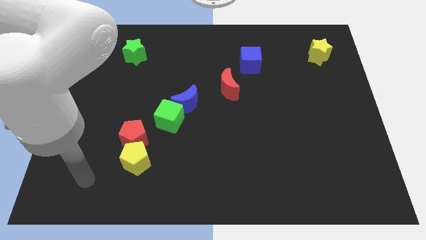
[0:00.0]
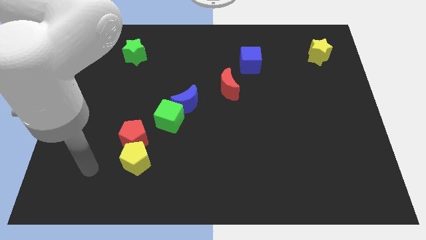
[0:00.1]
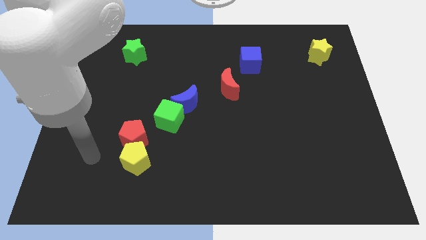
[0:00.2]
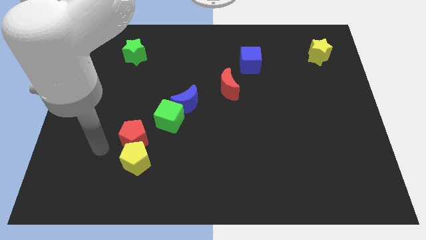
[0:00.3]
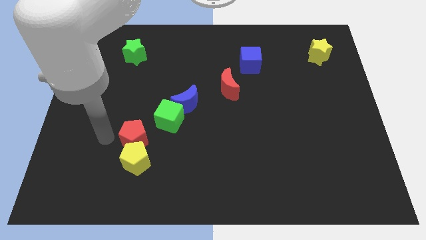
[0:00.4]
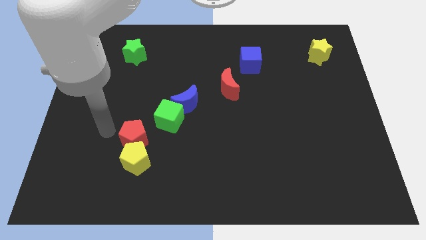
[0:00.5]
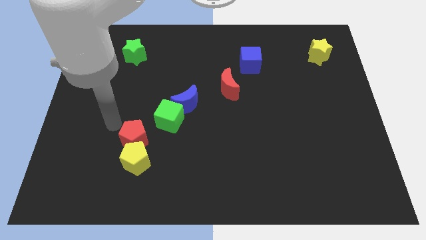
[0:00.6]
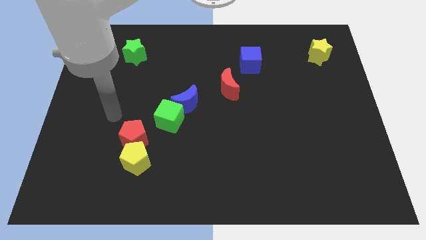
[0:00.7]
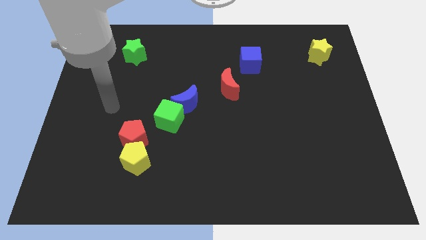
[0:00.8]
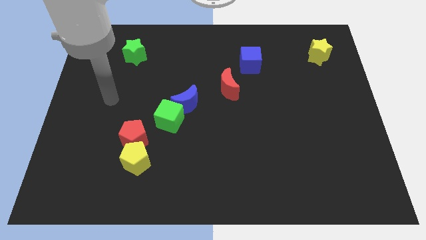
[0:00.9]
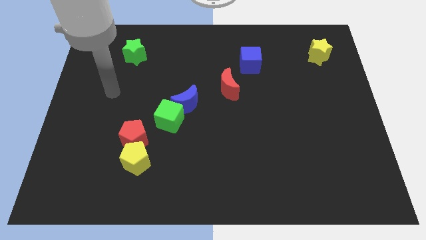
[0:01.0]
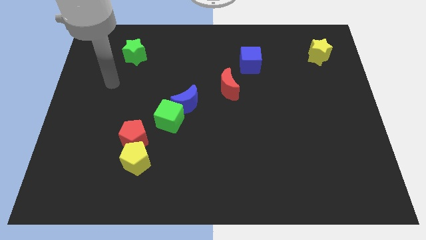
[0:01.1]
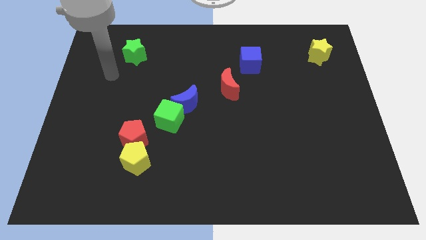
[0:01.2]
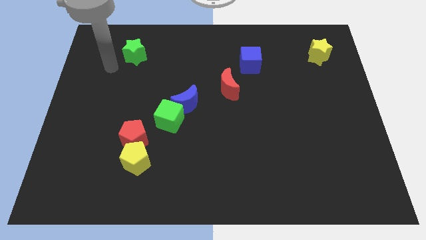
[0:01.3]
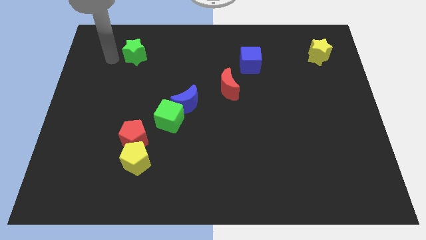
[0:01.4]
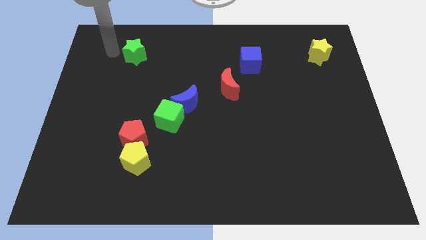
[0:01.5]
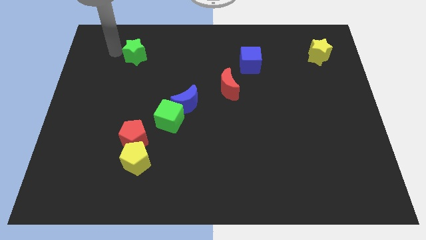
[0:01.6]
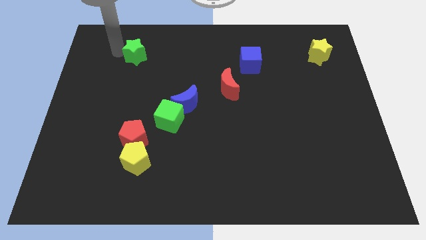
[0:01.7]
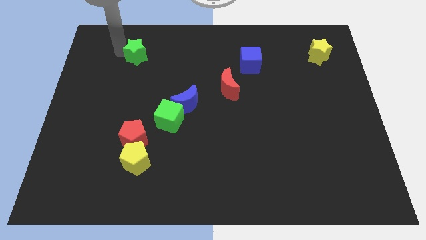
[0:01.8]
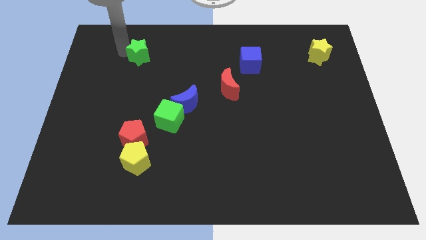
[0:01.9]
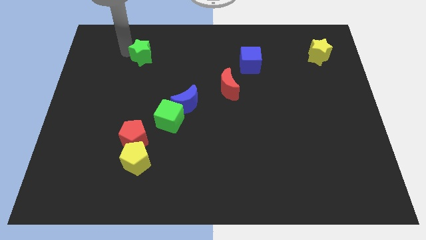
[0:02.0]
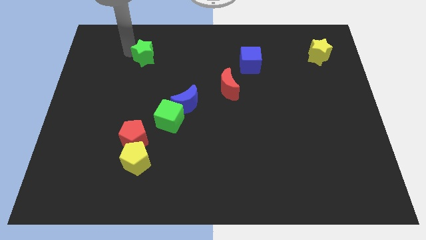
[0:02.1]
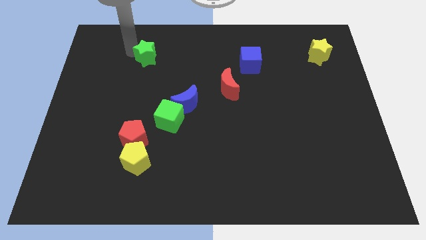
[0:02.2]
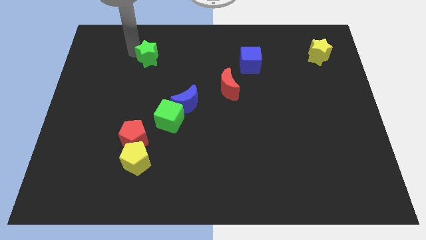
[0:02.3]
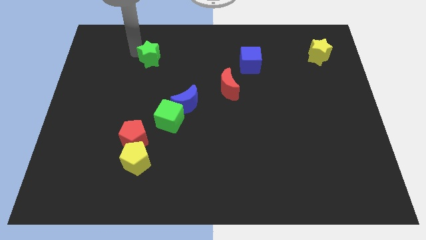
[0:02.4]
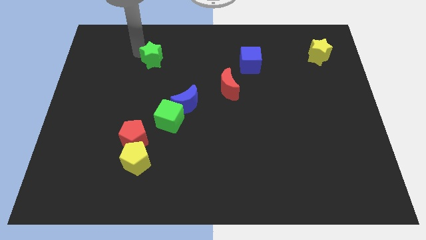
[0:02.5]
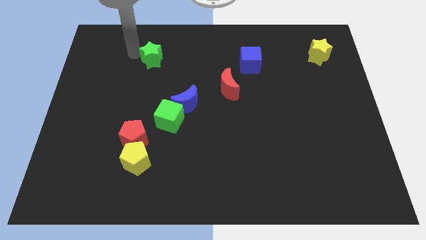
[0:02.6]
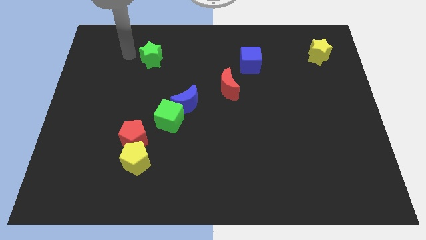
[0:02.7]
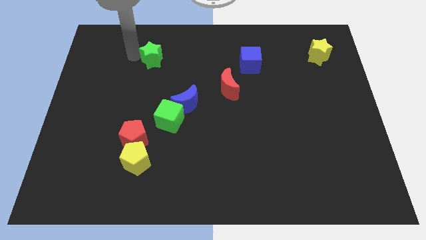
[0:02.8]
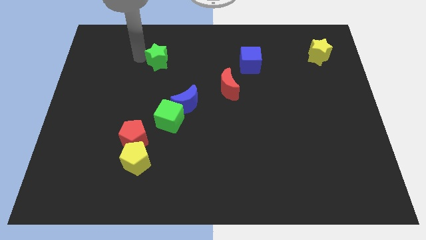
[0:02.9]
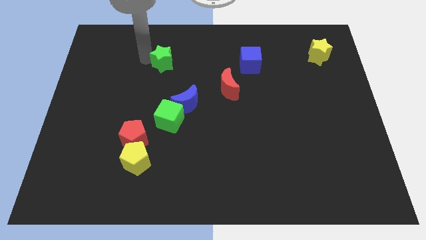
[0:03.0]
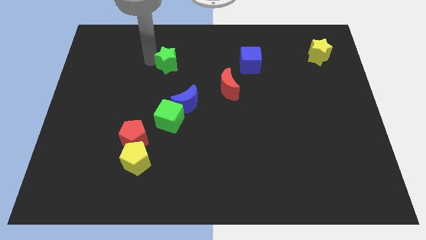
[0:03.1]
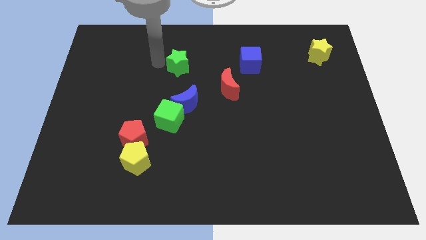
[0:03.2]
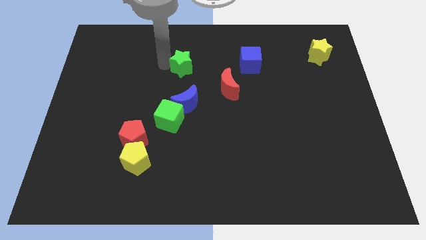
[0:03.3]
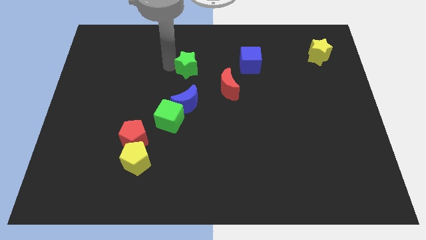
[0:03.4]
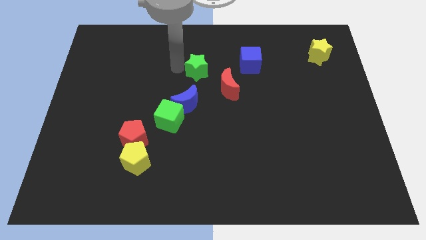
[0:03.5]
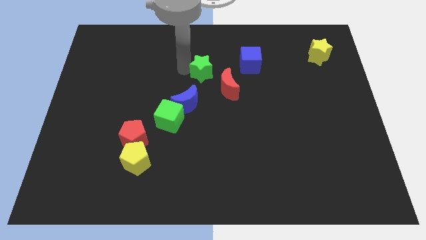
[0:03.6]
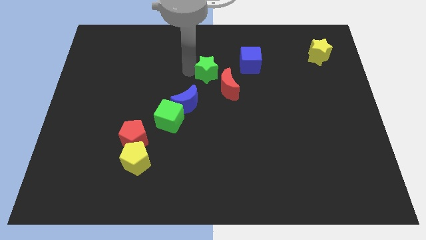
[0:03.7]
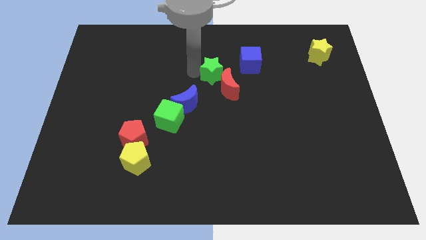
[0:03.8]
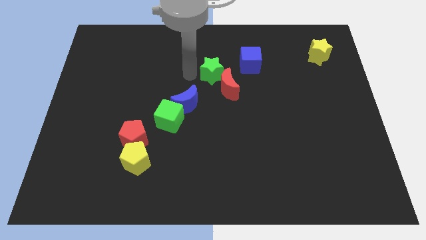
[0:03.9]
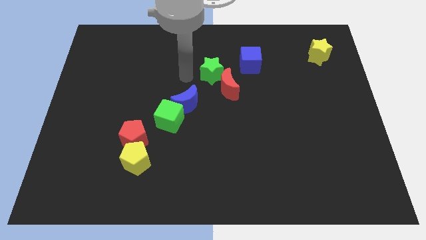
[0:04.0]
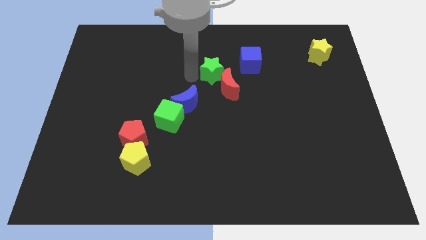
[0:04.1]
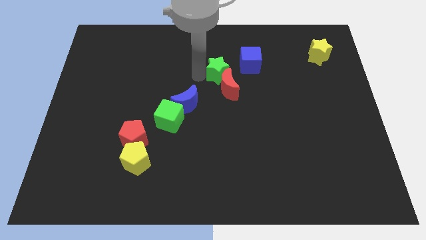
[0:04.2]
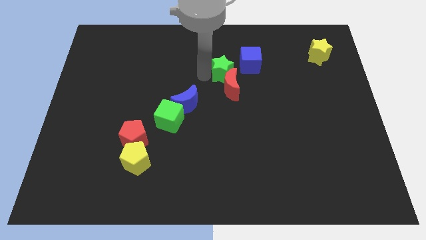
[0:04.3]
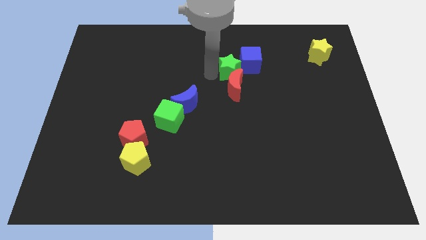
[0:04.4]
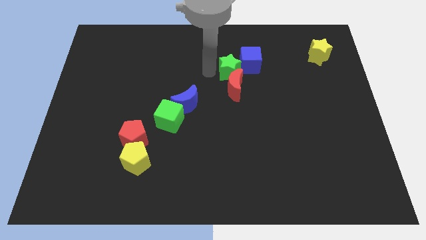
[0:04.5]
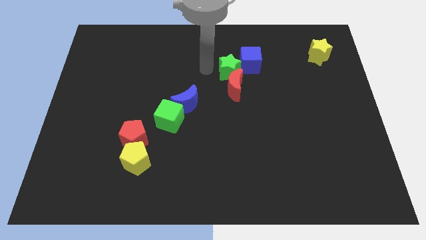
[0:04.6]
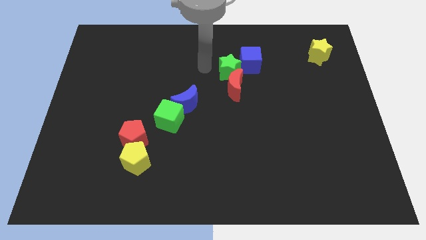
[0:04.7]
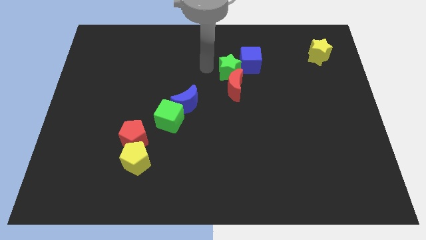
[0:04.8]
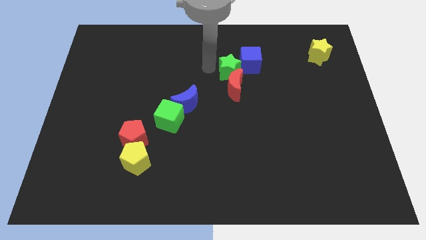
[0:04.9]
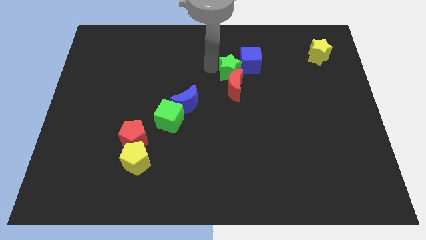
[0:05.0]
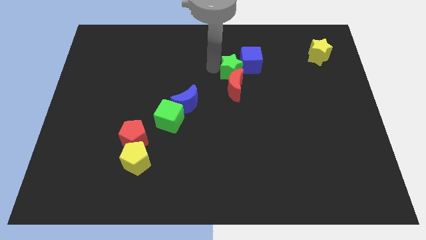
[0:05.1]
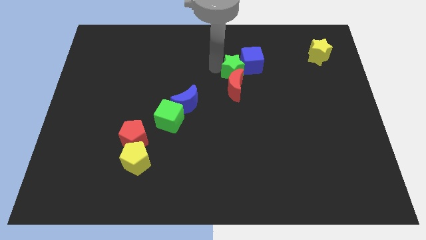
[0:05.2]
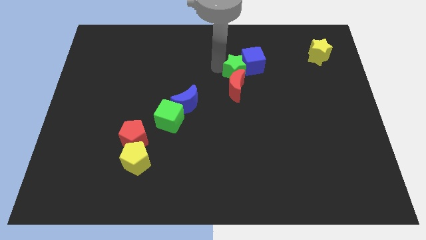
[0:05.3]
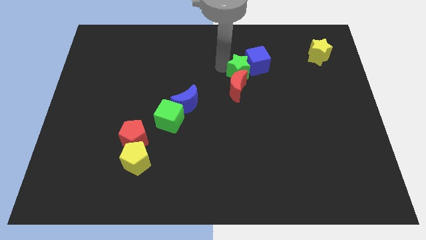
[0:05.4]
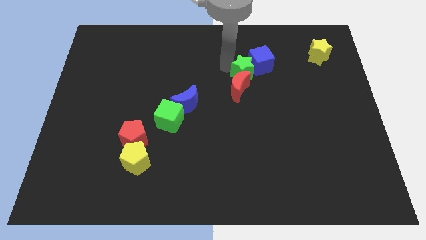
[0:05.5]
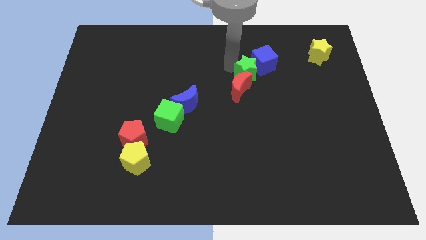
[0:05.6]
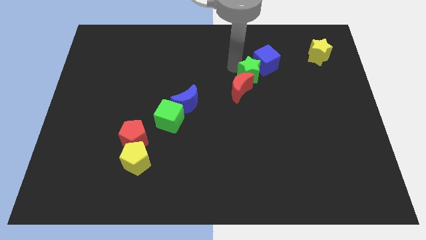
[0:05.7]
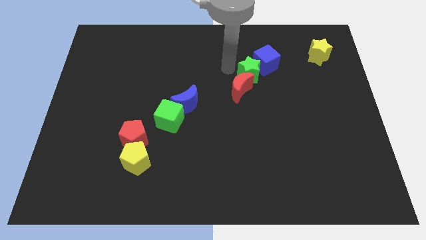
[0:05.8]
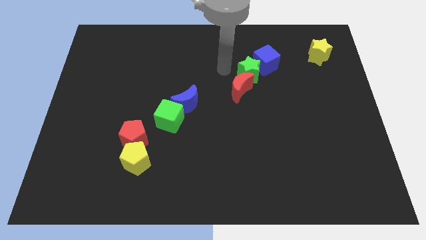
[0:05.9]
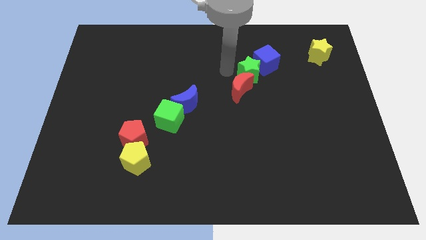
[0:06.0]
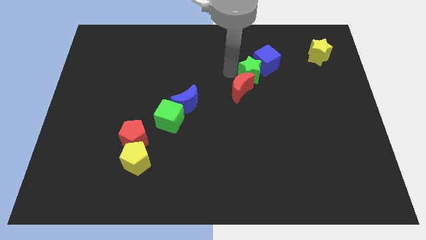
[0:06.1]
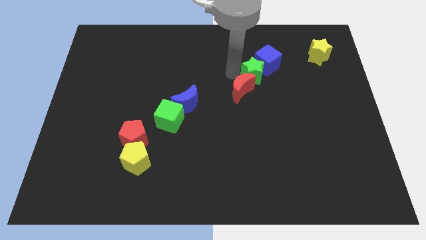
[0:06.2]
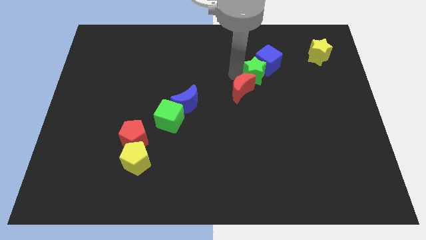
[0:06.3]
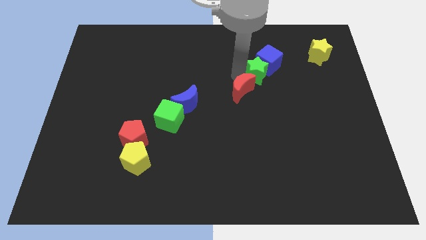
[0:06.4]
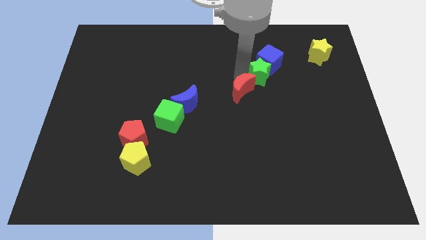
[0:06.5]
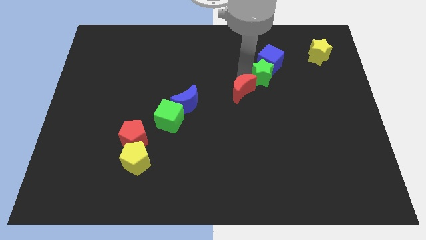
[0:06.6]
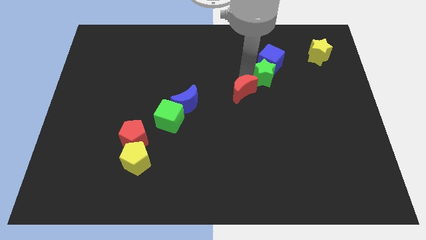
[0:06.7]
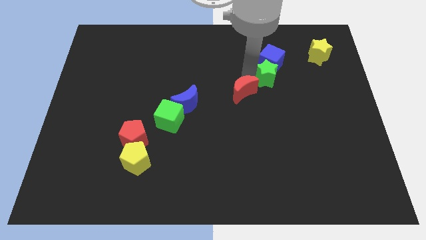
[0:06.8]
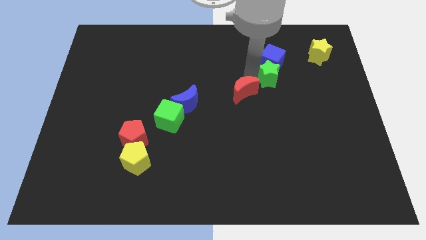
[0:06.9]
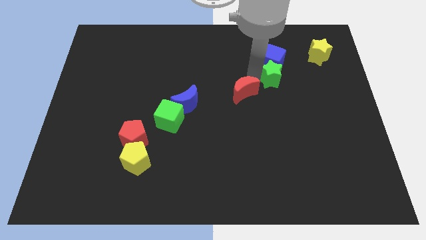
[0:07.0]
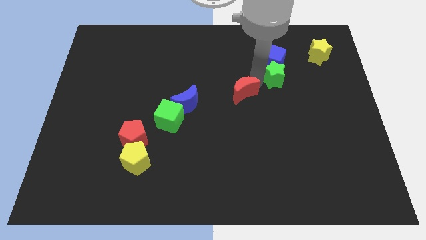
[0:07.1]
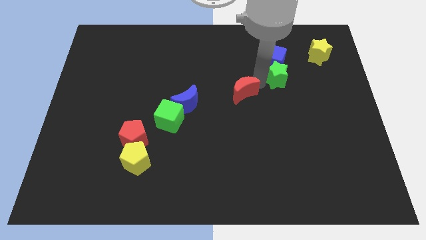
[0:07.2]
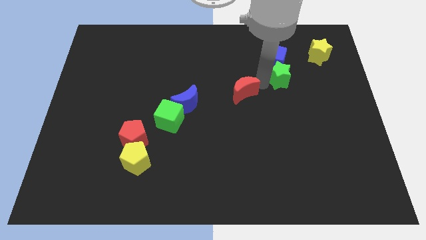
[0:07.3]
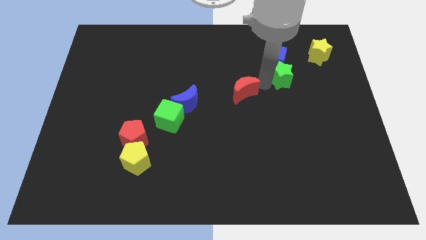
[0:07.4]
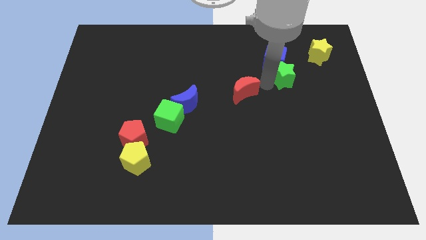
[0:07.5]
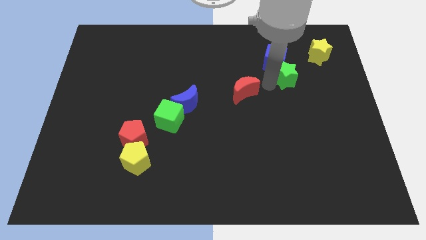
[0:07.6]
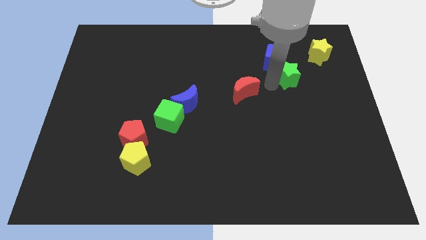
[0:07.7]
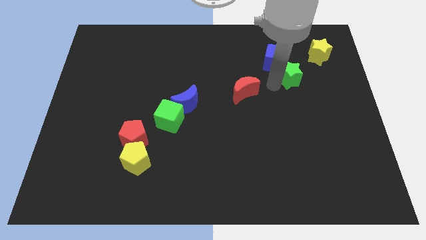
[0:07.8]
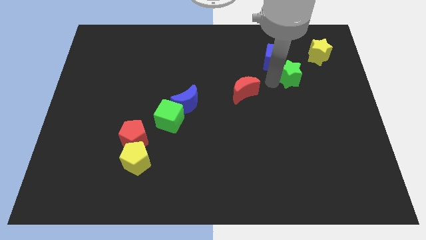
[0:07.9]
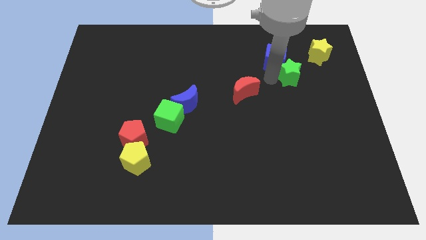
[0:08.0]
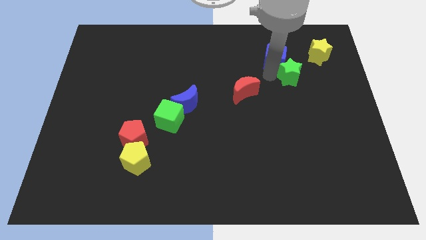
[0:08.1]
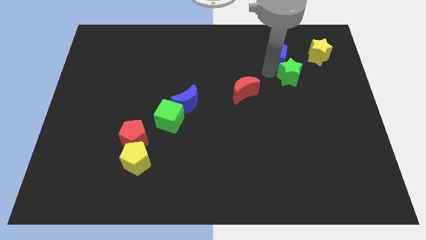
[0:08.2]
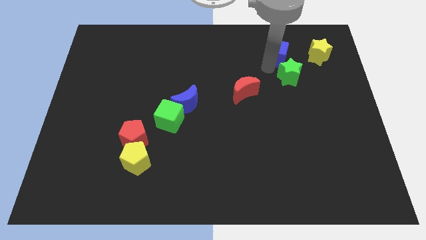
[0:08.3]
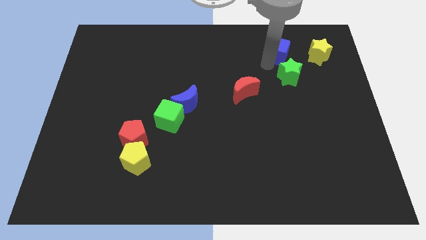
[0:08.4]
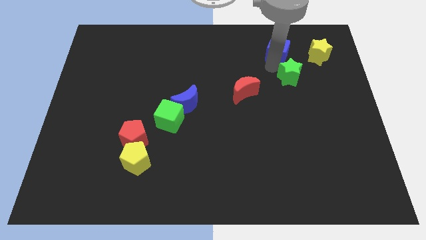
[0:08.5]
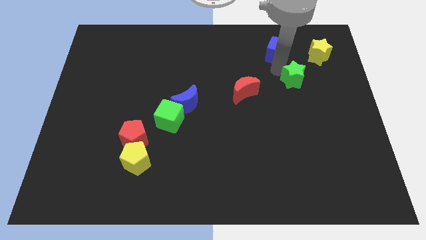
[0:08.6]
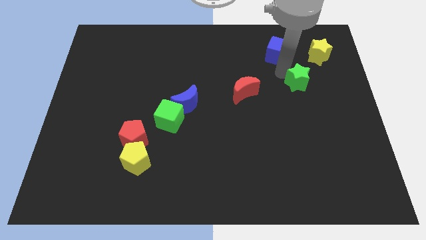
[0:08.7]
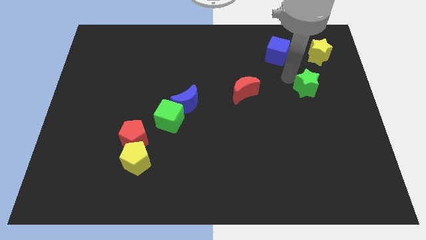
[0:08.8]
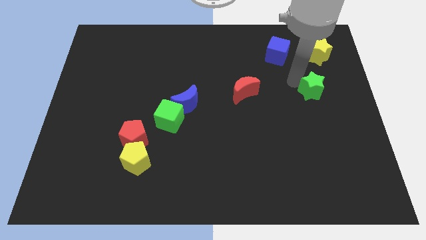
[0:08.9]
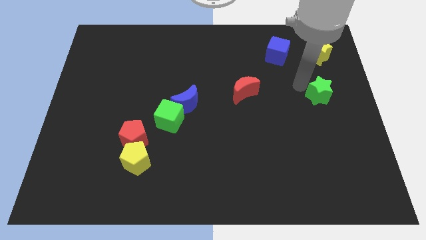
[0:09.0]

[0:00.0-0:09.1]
put the green star to the right side
